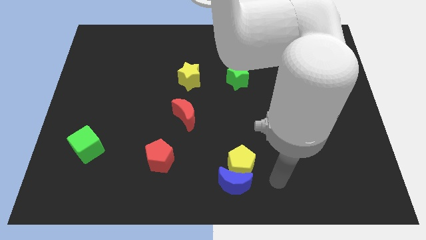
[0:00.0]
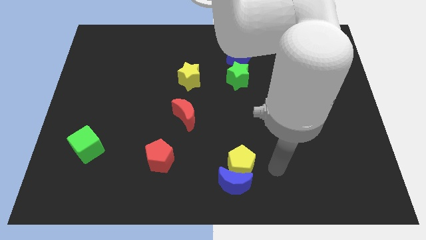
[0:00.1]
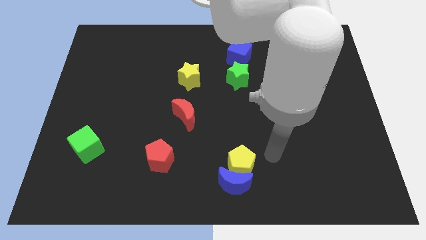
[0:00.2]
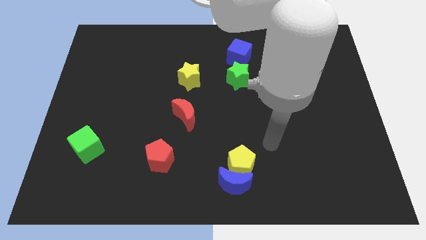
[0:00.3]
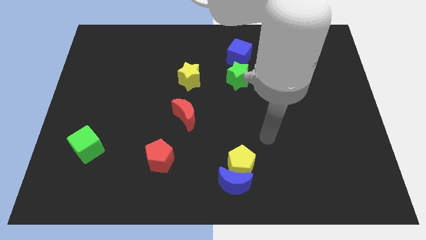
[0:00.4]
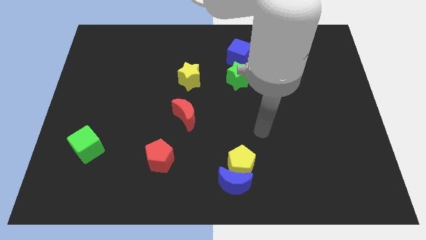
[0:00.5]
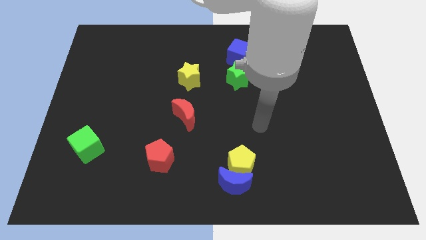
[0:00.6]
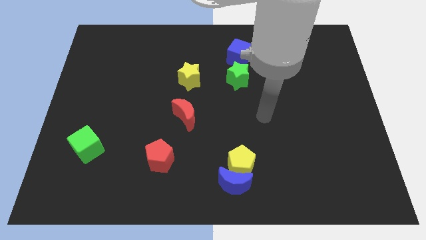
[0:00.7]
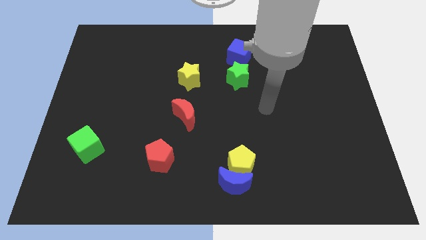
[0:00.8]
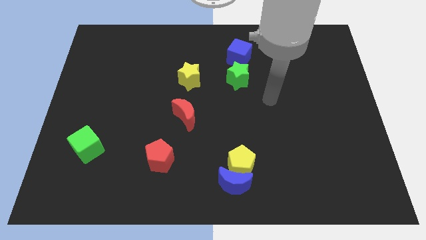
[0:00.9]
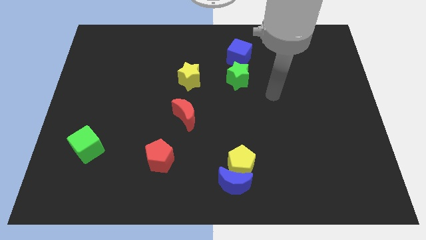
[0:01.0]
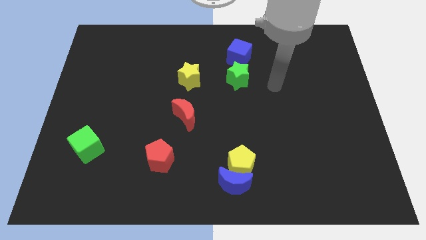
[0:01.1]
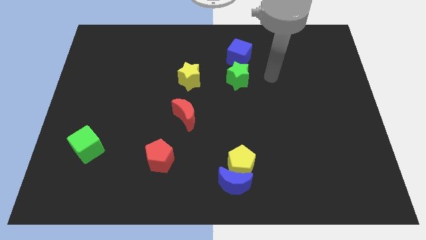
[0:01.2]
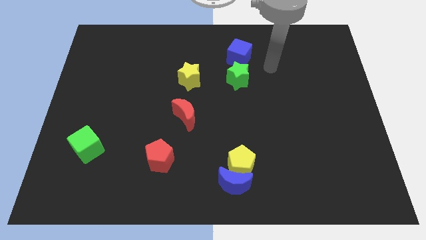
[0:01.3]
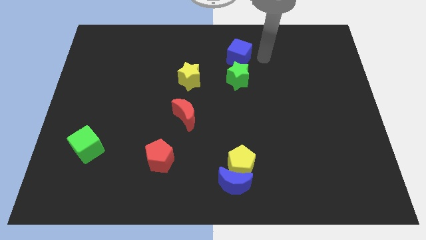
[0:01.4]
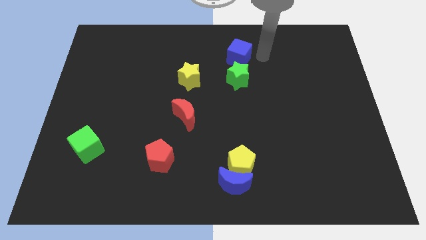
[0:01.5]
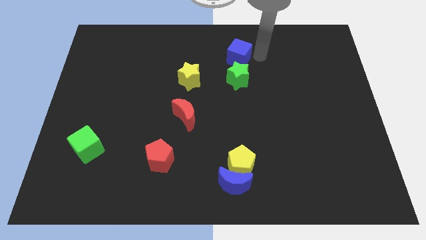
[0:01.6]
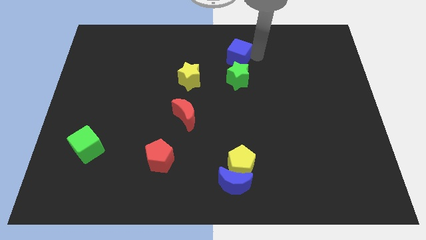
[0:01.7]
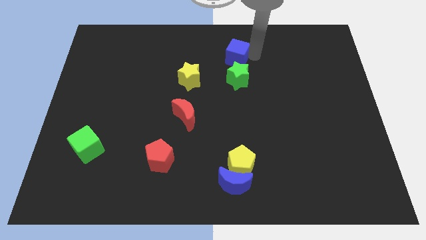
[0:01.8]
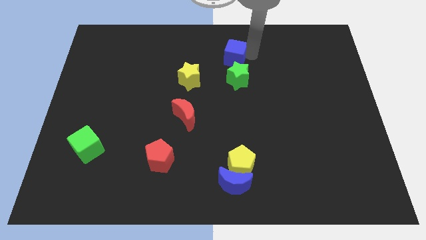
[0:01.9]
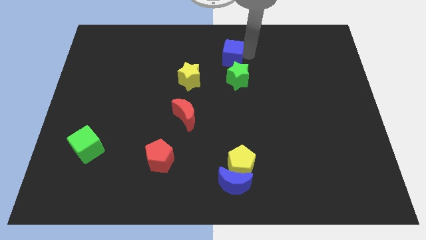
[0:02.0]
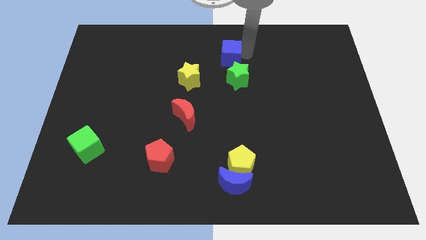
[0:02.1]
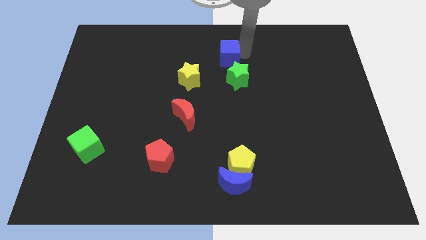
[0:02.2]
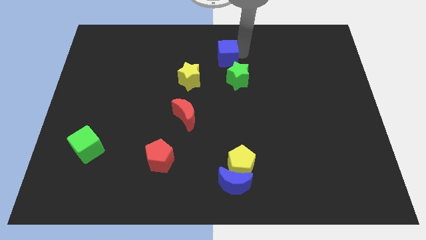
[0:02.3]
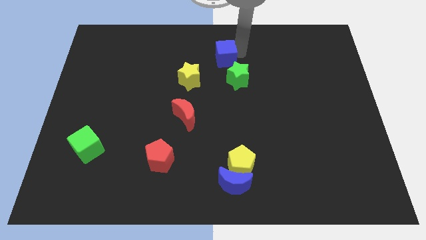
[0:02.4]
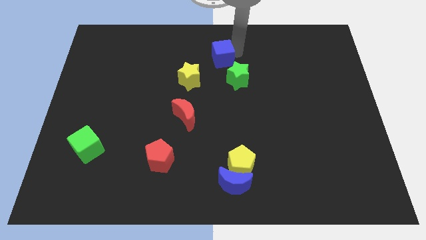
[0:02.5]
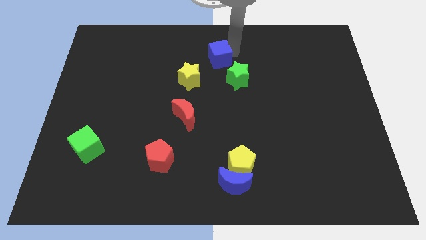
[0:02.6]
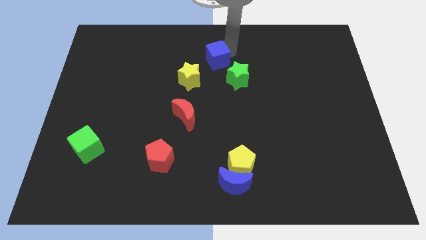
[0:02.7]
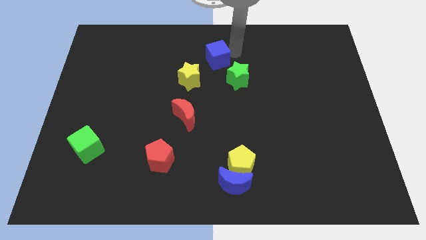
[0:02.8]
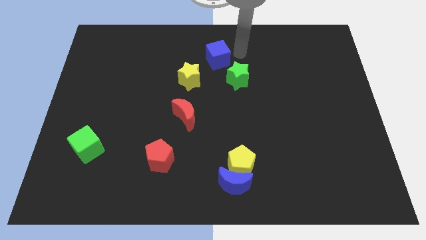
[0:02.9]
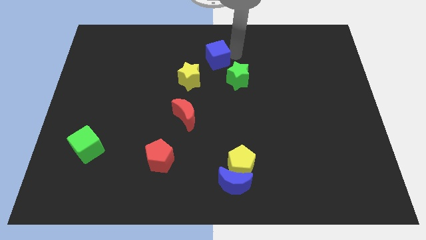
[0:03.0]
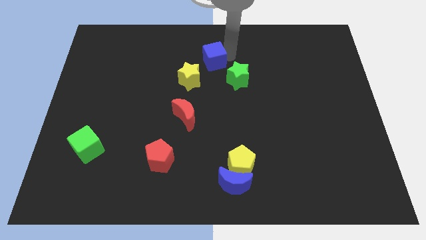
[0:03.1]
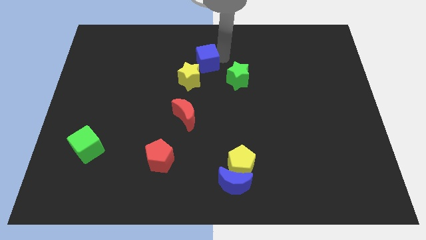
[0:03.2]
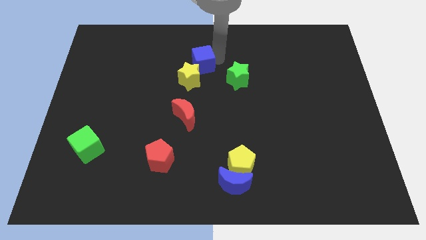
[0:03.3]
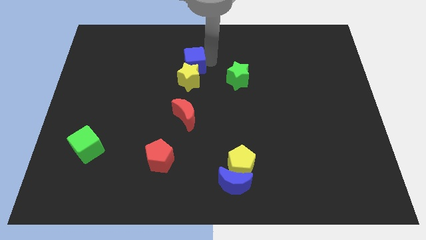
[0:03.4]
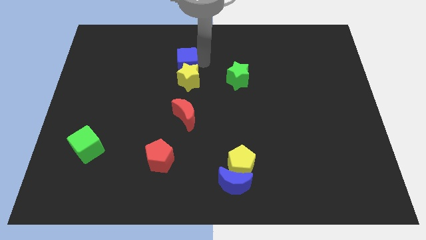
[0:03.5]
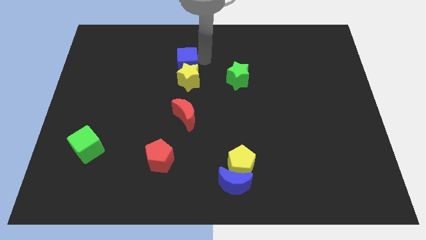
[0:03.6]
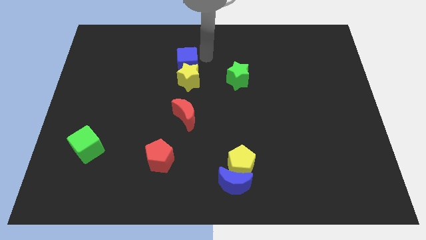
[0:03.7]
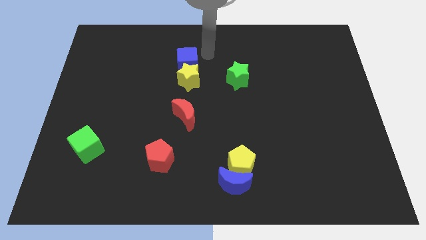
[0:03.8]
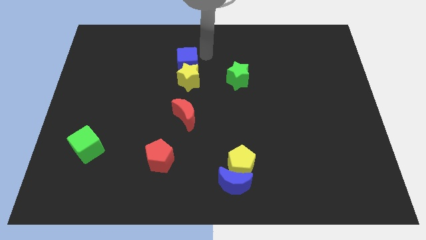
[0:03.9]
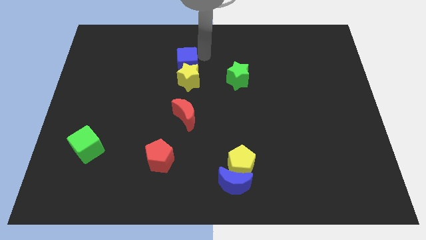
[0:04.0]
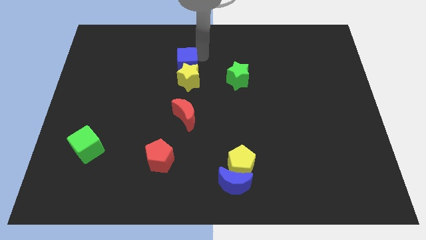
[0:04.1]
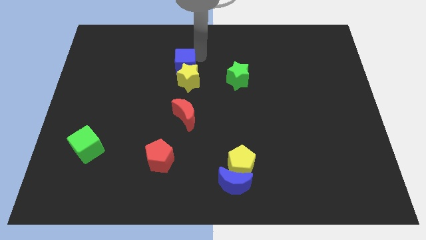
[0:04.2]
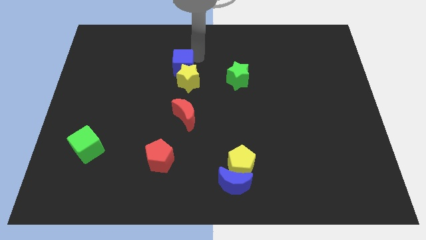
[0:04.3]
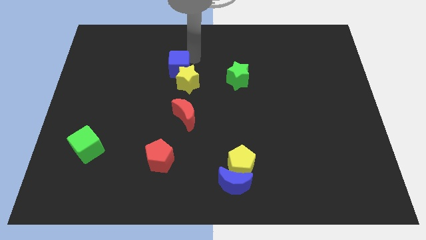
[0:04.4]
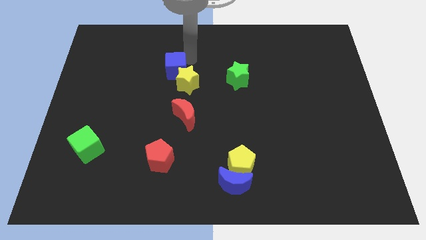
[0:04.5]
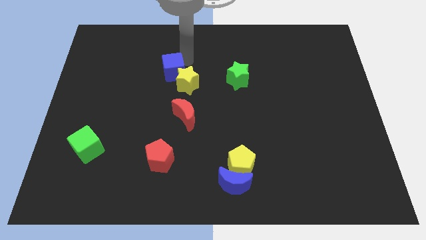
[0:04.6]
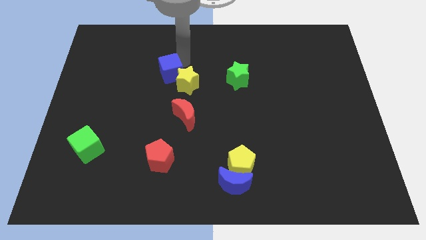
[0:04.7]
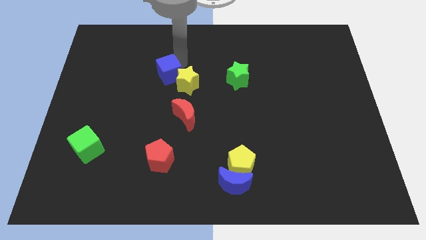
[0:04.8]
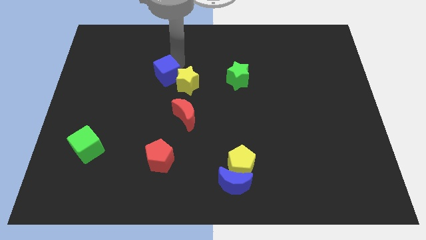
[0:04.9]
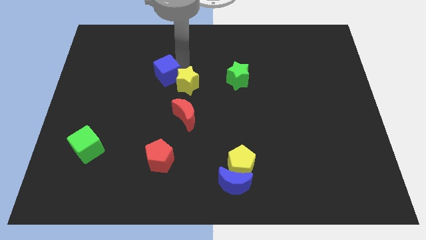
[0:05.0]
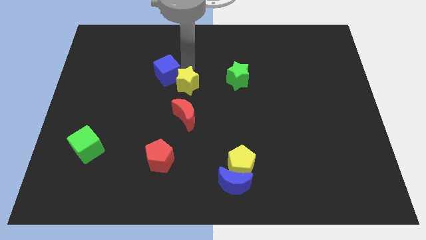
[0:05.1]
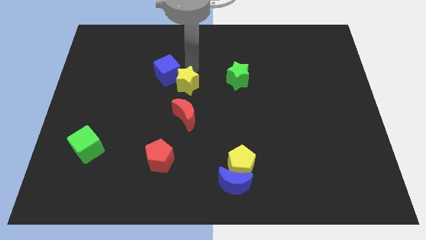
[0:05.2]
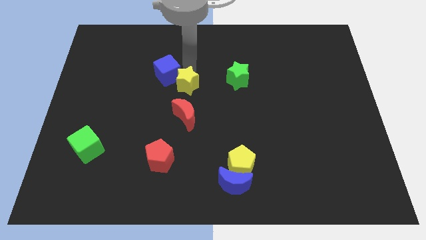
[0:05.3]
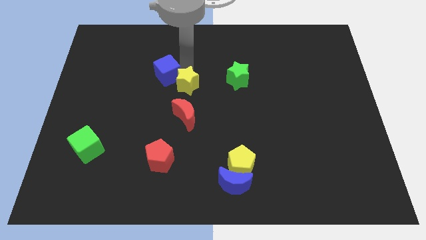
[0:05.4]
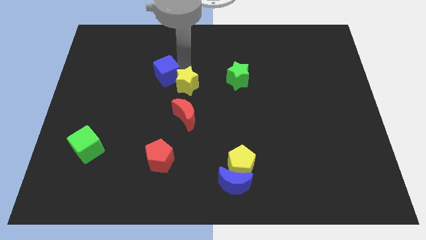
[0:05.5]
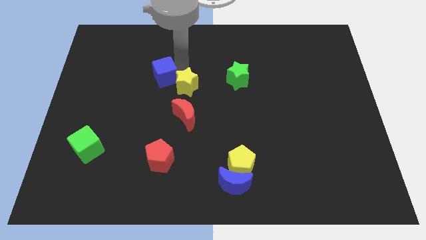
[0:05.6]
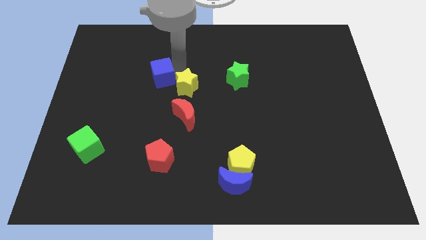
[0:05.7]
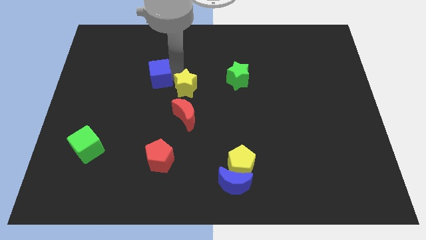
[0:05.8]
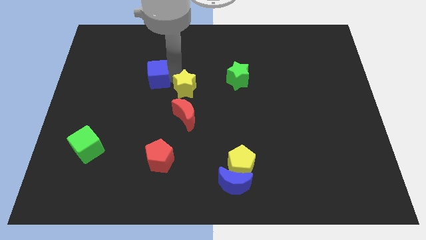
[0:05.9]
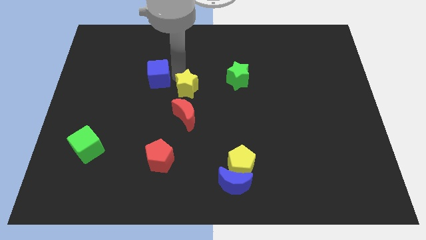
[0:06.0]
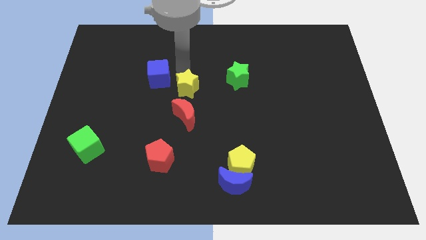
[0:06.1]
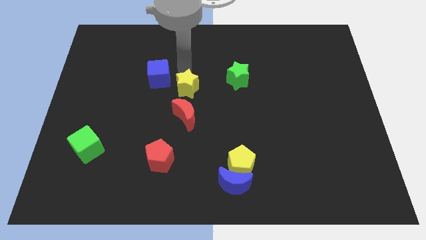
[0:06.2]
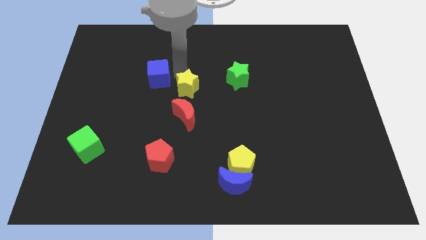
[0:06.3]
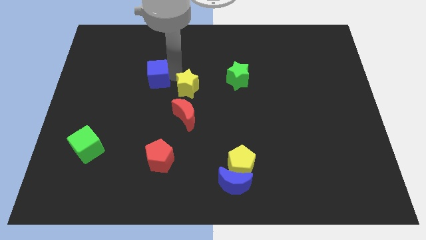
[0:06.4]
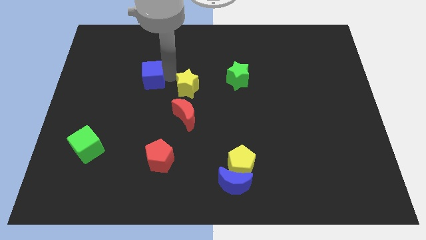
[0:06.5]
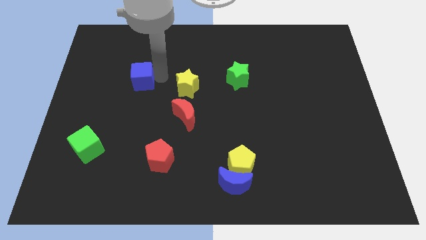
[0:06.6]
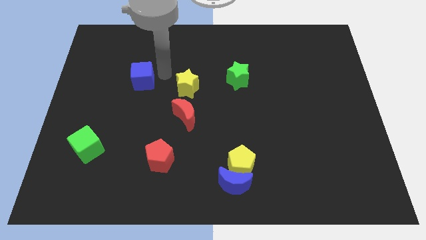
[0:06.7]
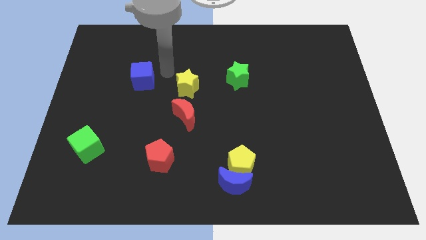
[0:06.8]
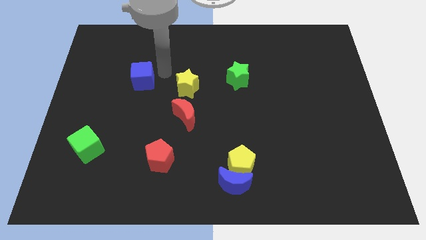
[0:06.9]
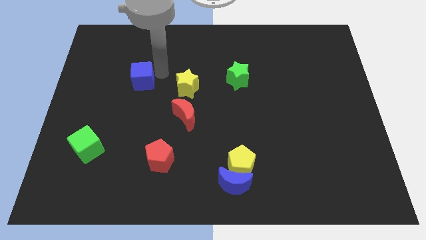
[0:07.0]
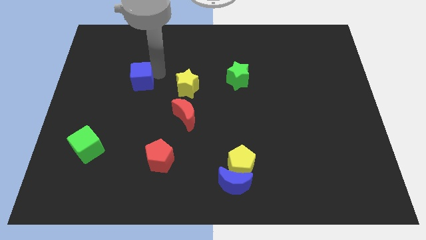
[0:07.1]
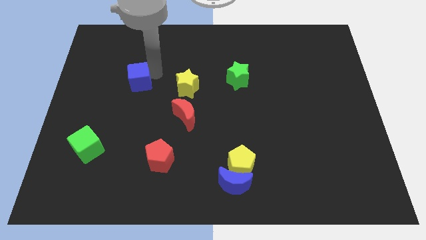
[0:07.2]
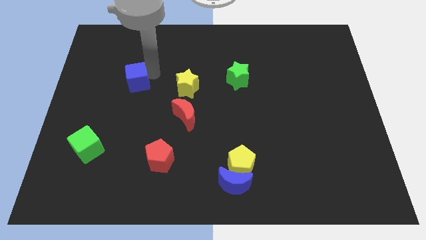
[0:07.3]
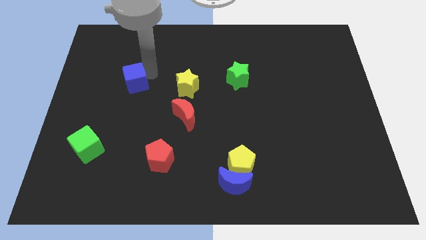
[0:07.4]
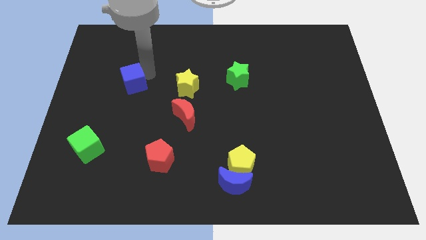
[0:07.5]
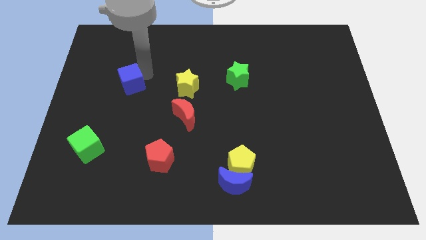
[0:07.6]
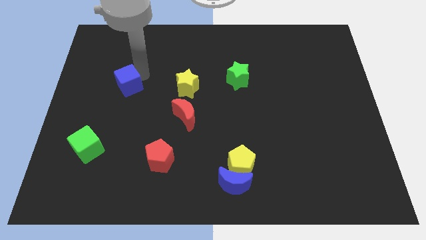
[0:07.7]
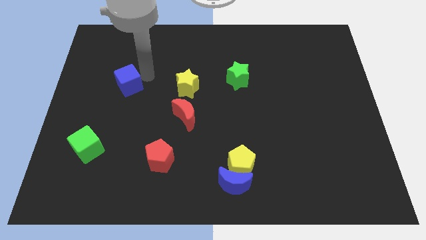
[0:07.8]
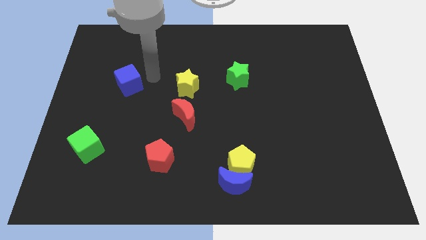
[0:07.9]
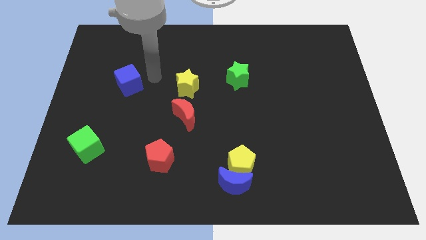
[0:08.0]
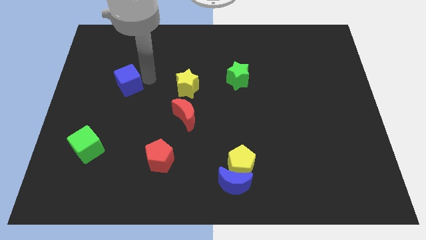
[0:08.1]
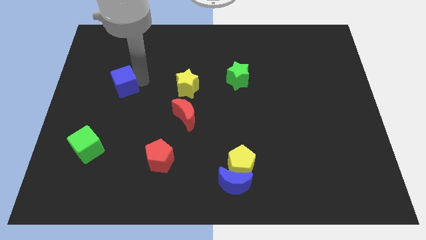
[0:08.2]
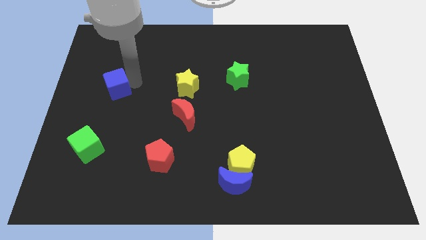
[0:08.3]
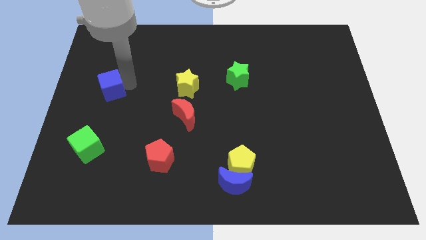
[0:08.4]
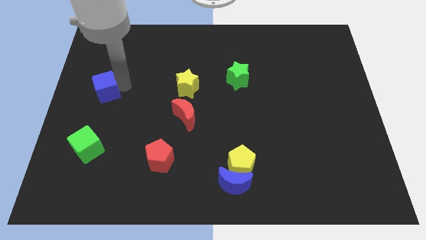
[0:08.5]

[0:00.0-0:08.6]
slide the blue cube to the center left
